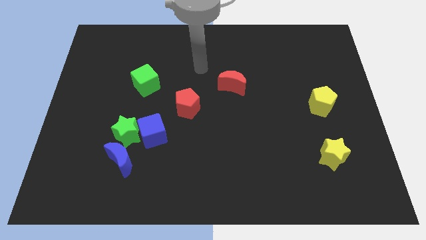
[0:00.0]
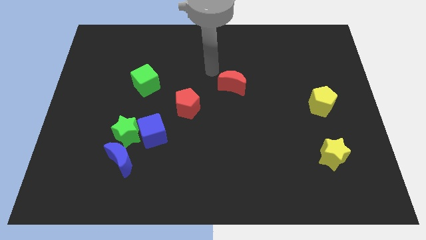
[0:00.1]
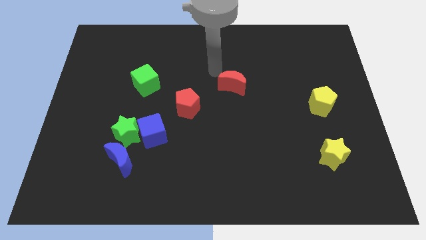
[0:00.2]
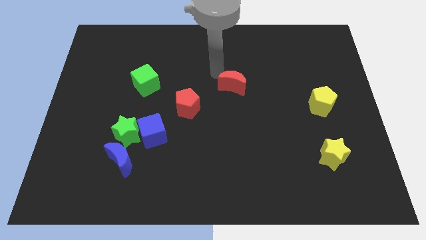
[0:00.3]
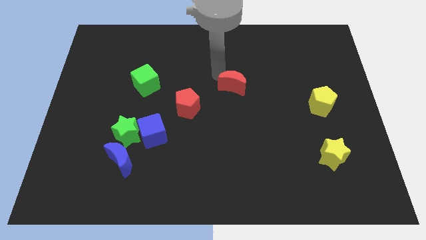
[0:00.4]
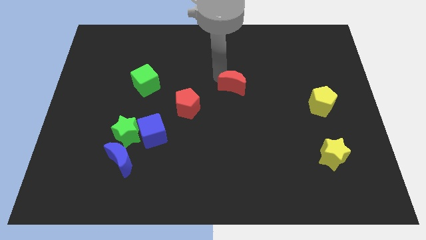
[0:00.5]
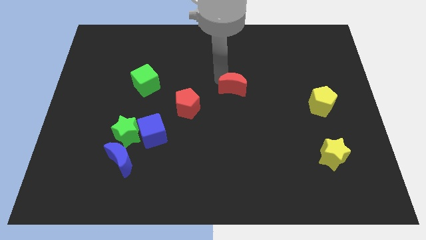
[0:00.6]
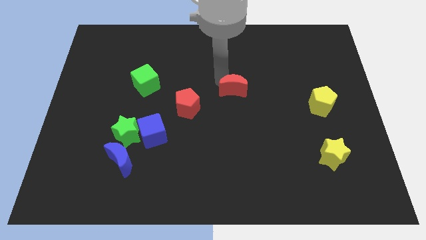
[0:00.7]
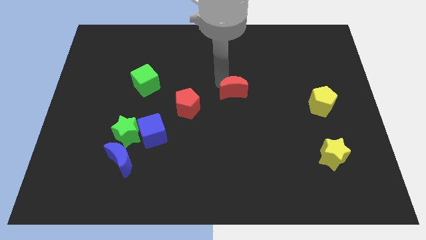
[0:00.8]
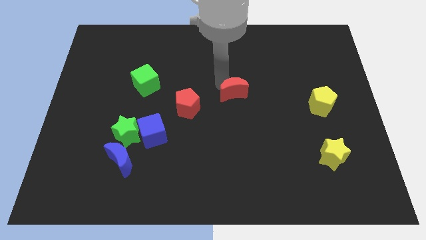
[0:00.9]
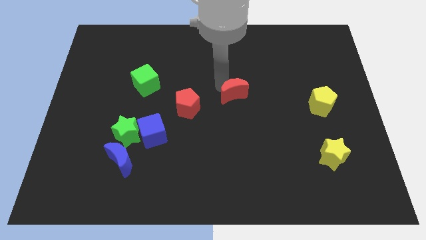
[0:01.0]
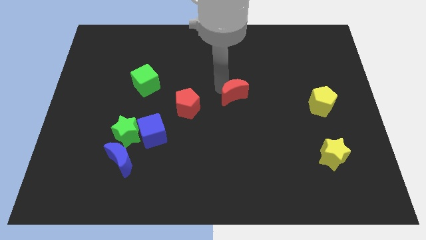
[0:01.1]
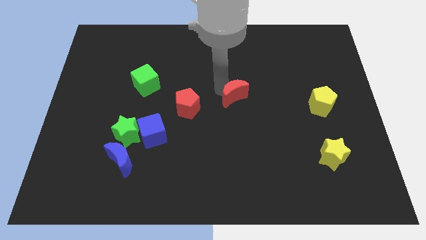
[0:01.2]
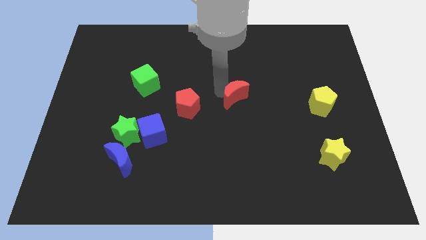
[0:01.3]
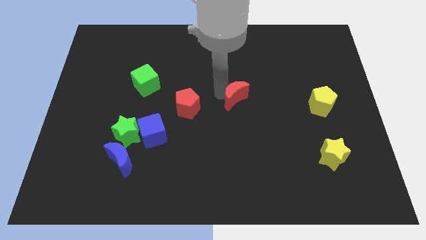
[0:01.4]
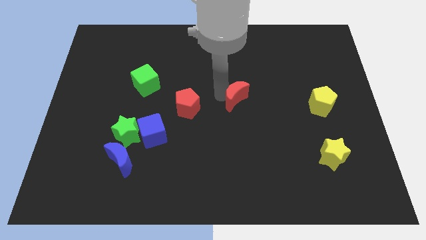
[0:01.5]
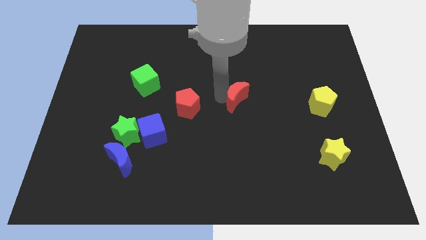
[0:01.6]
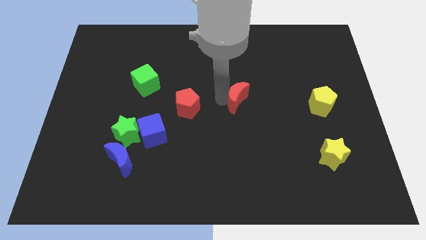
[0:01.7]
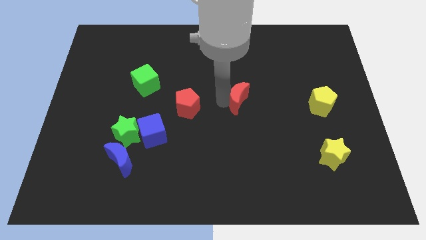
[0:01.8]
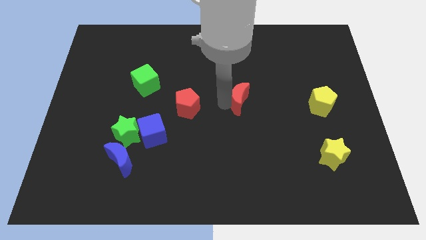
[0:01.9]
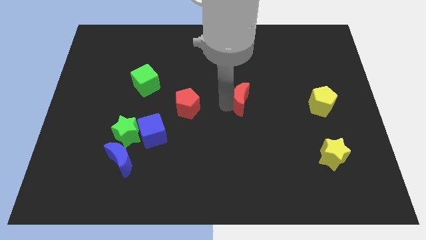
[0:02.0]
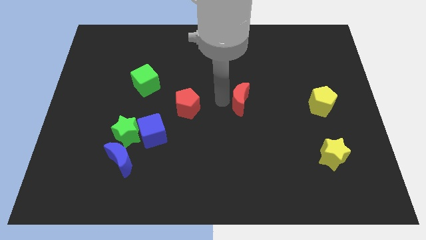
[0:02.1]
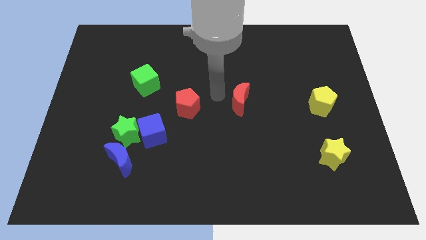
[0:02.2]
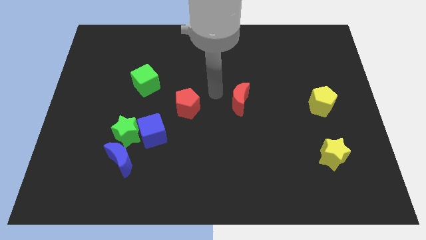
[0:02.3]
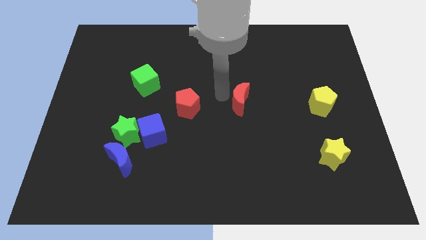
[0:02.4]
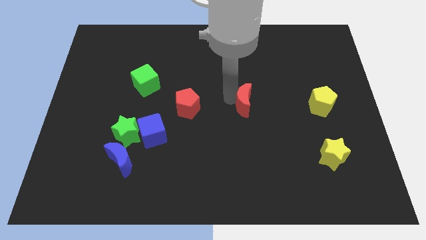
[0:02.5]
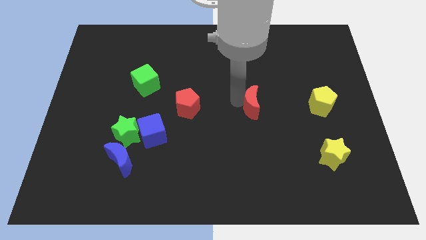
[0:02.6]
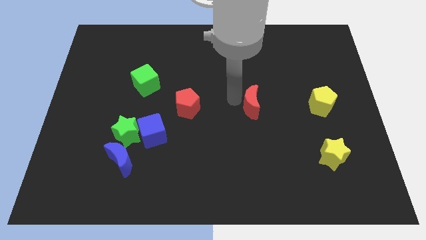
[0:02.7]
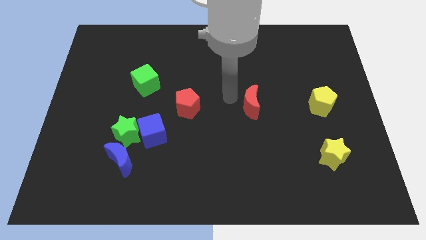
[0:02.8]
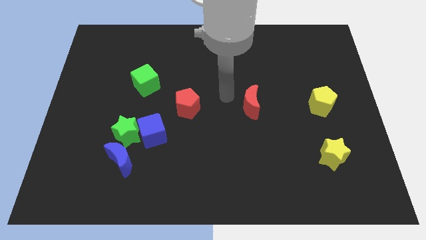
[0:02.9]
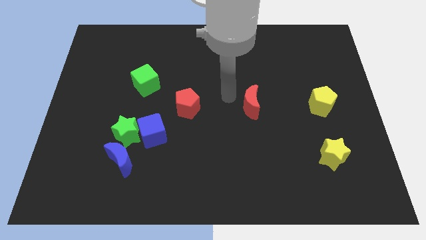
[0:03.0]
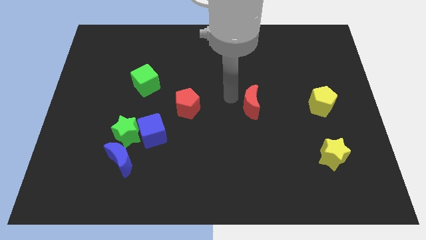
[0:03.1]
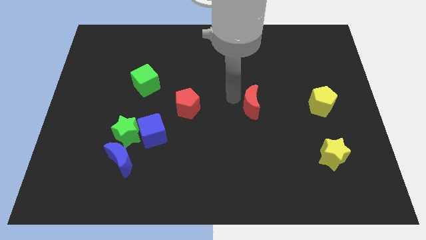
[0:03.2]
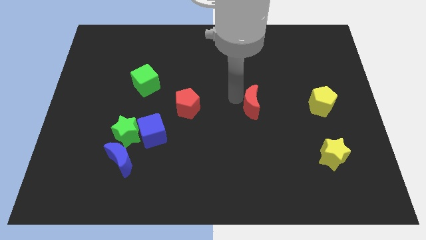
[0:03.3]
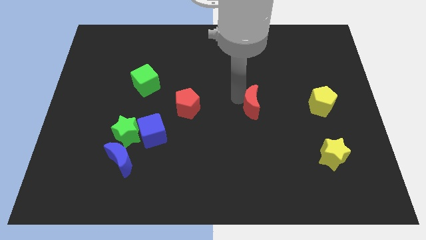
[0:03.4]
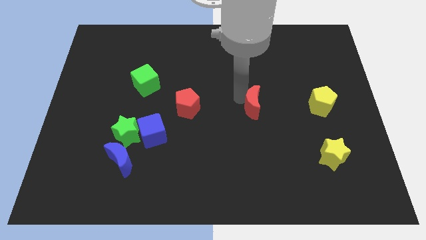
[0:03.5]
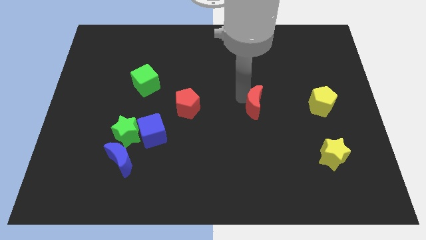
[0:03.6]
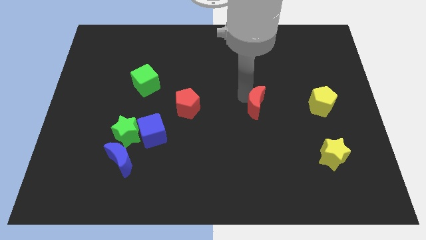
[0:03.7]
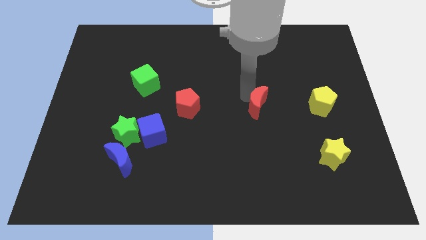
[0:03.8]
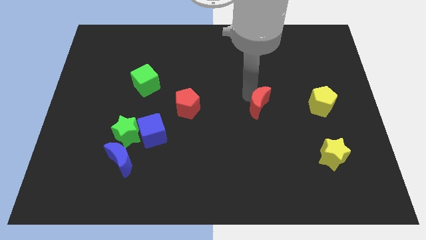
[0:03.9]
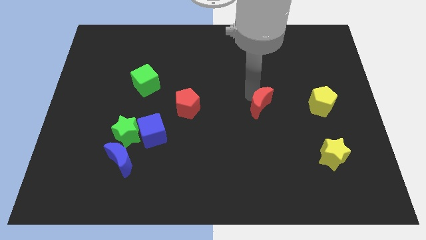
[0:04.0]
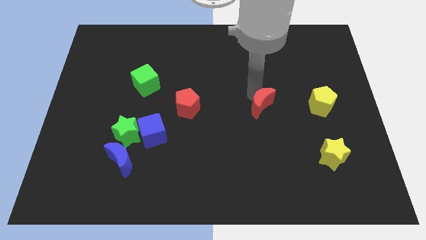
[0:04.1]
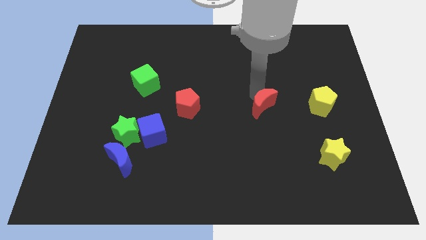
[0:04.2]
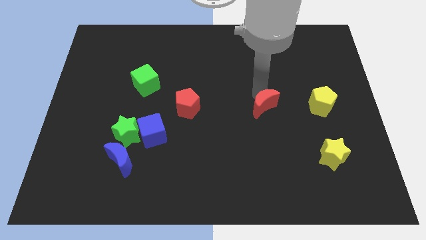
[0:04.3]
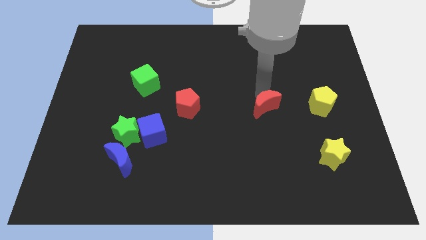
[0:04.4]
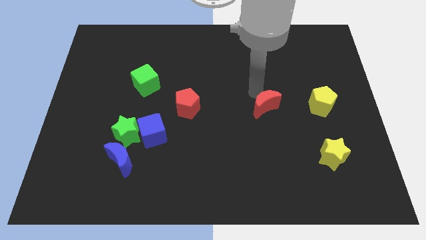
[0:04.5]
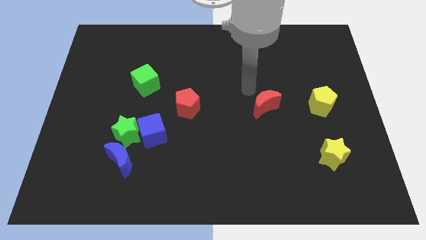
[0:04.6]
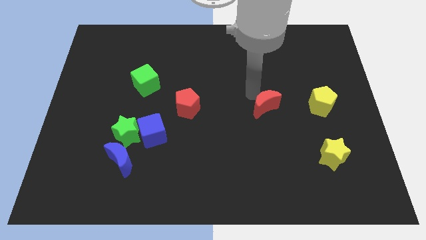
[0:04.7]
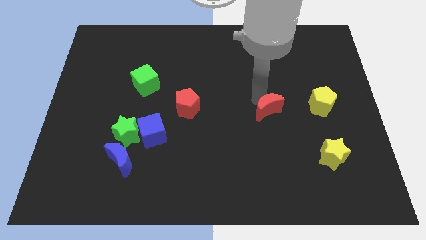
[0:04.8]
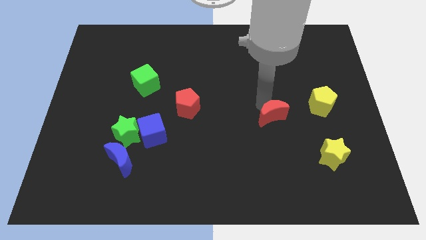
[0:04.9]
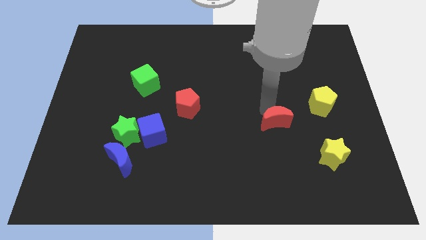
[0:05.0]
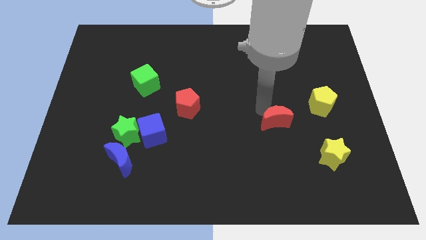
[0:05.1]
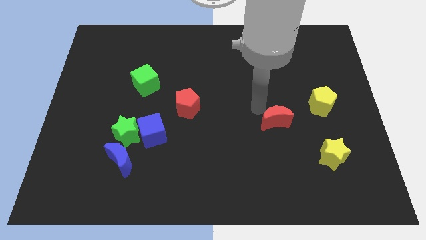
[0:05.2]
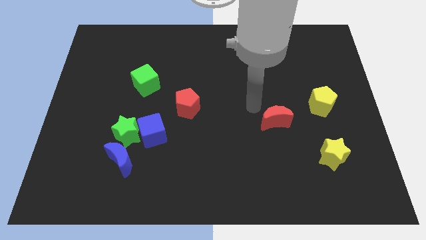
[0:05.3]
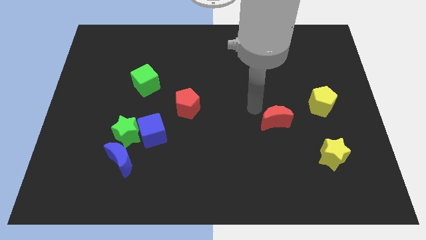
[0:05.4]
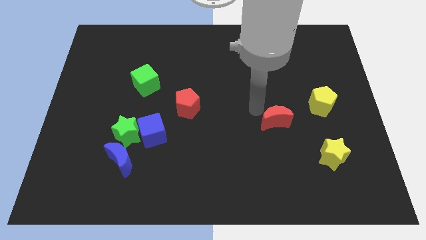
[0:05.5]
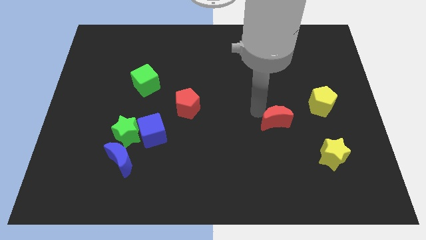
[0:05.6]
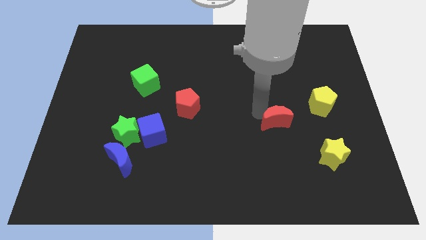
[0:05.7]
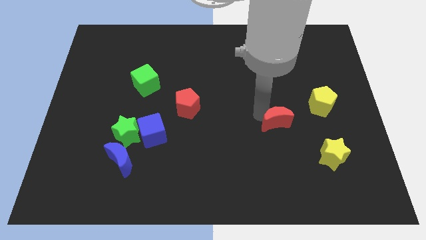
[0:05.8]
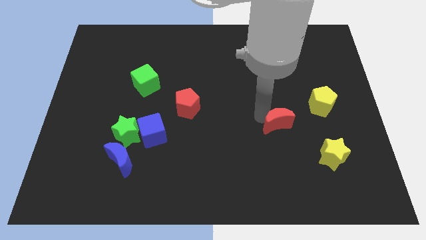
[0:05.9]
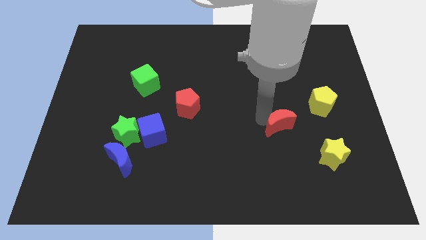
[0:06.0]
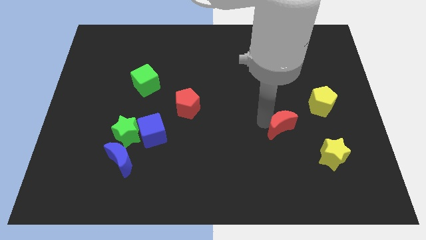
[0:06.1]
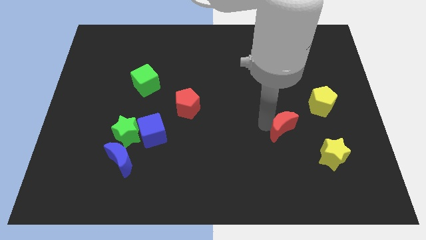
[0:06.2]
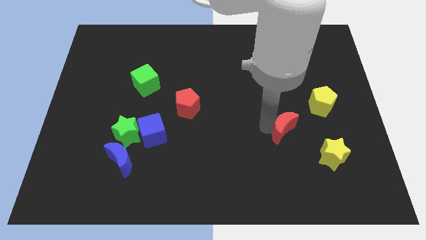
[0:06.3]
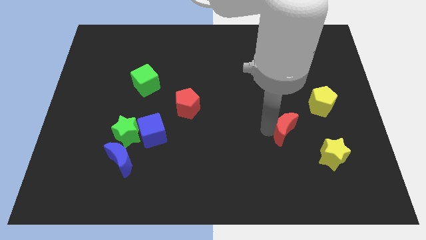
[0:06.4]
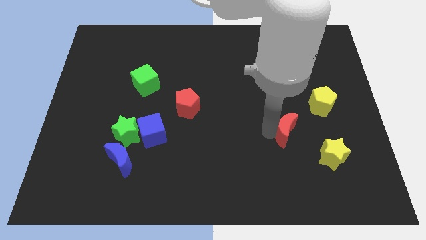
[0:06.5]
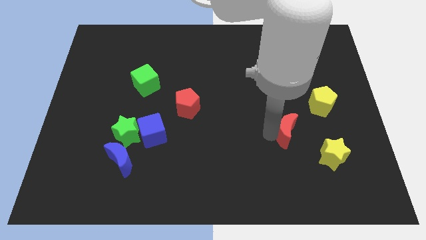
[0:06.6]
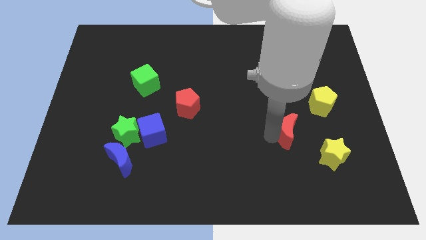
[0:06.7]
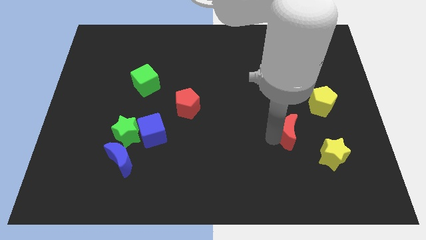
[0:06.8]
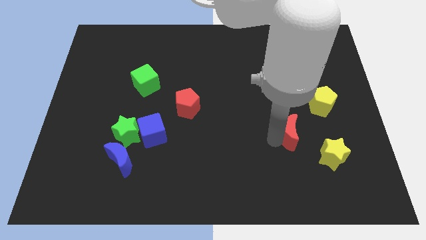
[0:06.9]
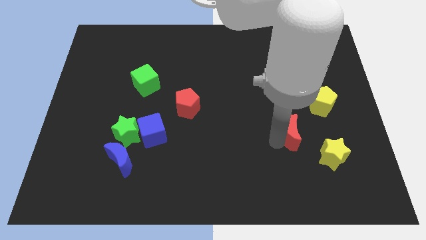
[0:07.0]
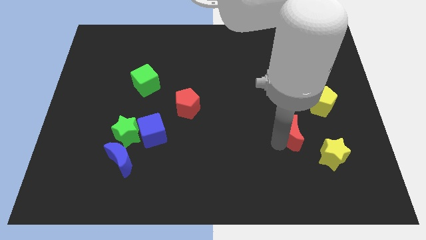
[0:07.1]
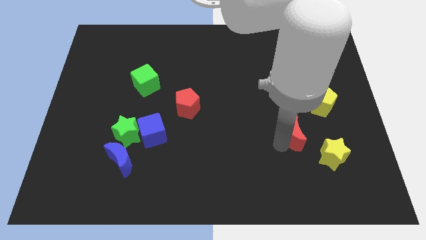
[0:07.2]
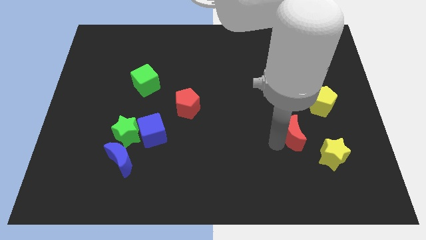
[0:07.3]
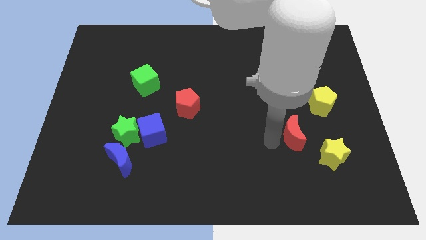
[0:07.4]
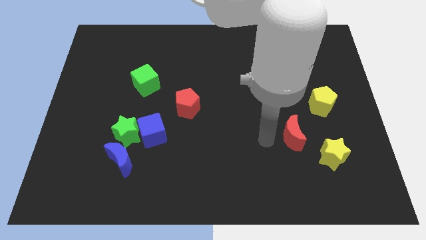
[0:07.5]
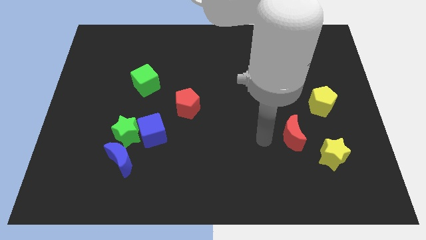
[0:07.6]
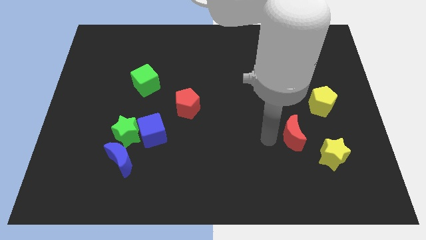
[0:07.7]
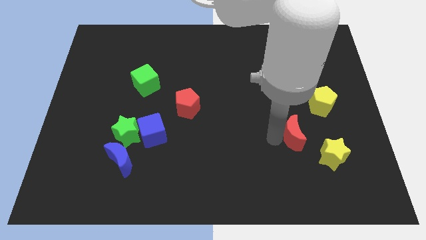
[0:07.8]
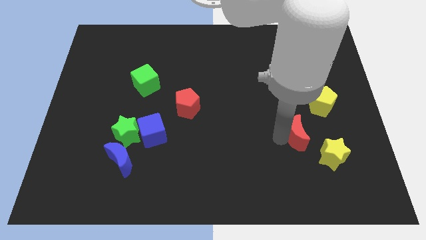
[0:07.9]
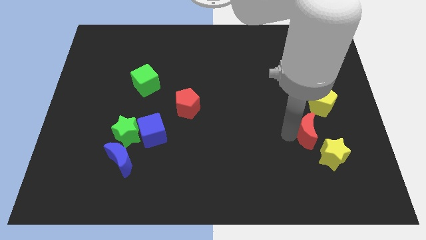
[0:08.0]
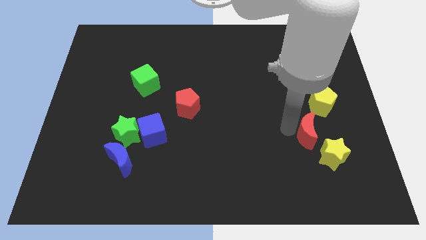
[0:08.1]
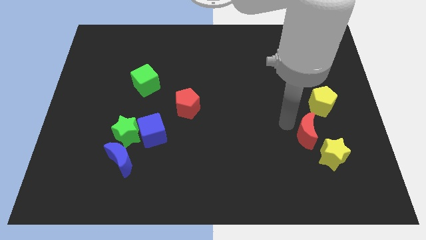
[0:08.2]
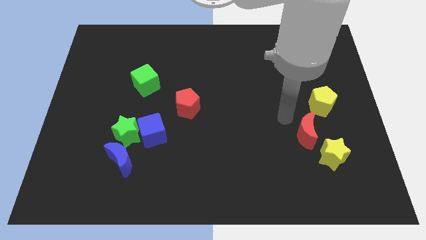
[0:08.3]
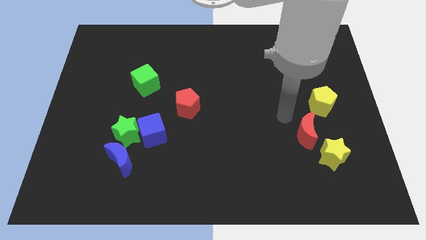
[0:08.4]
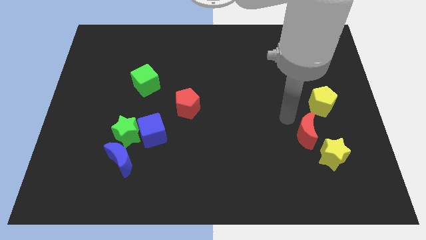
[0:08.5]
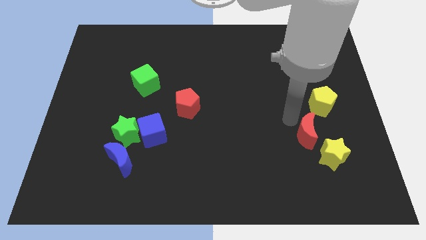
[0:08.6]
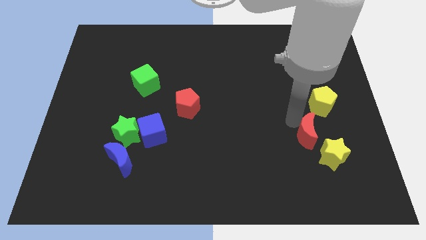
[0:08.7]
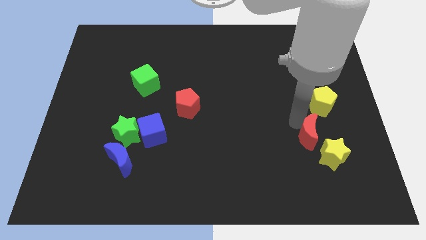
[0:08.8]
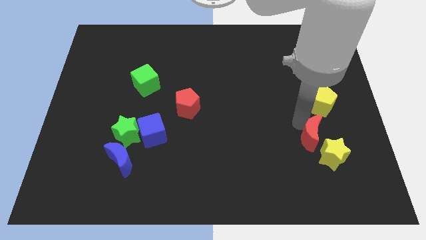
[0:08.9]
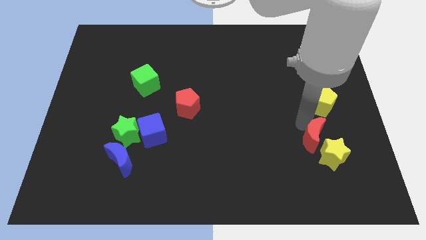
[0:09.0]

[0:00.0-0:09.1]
push the red moon close to the yellow star
